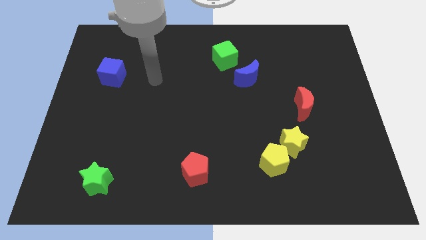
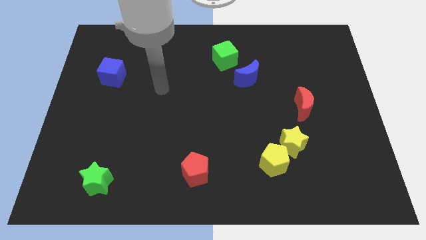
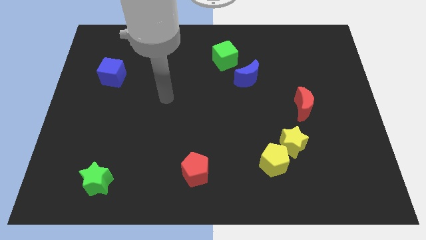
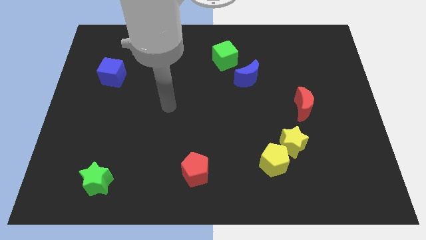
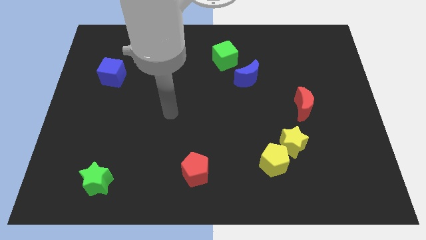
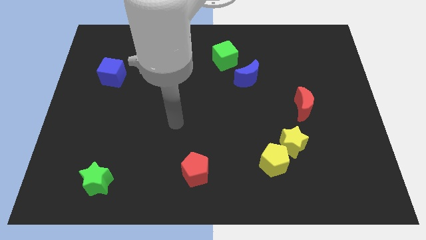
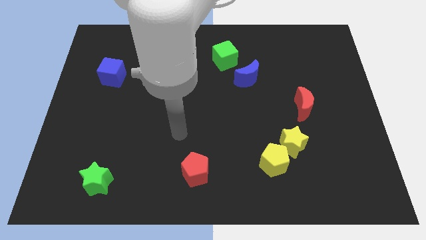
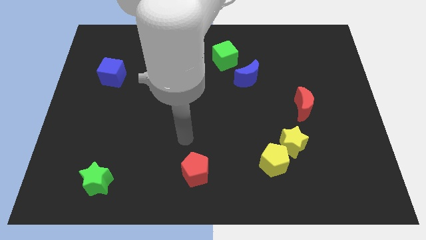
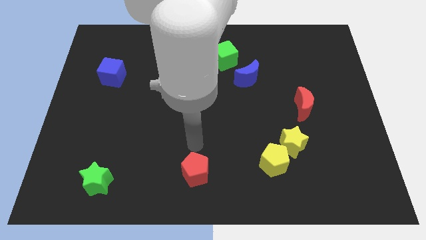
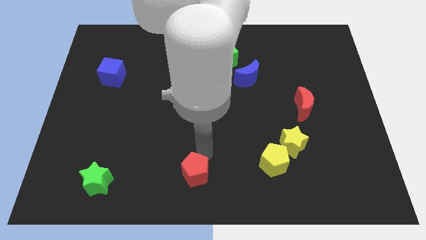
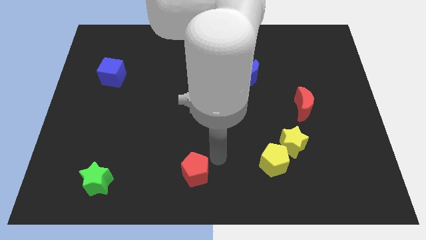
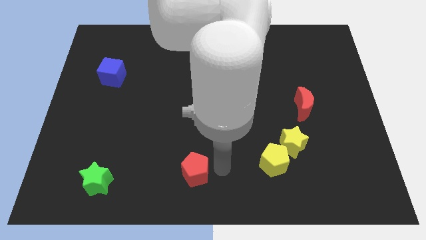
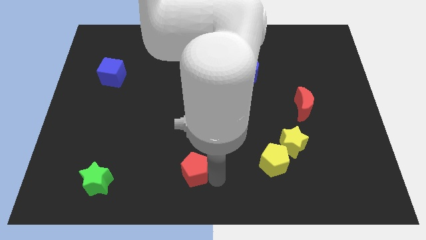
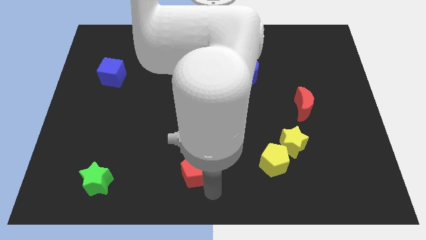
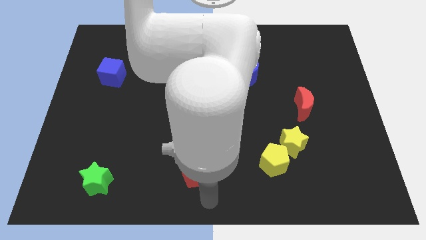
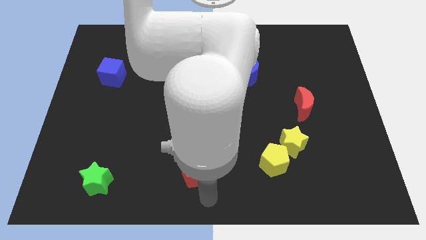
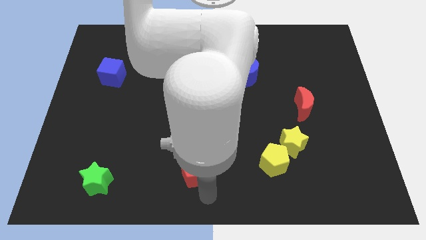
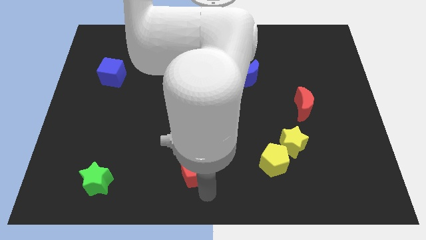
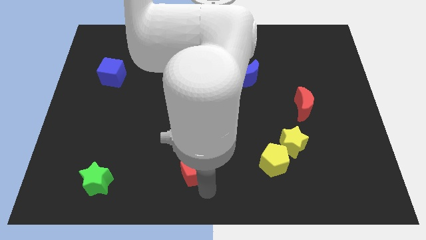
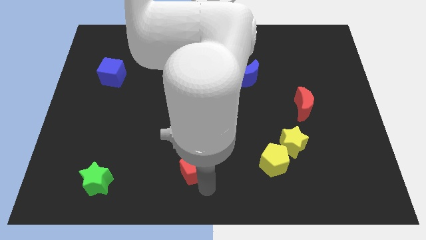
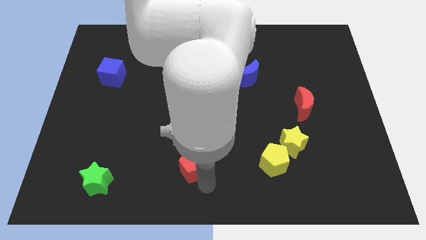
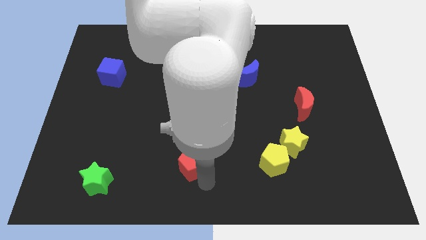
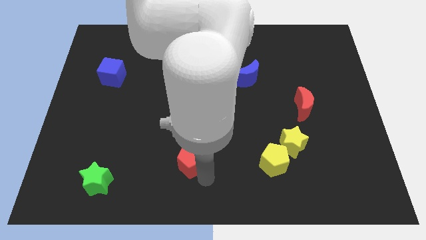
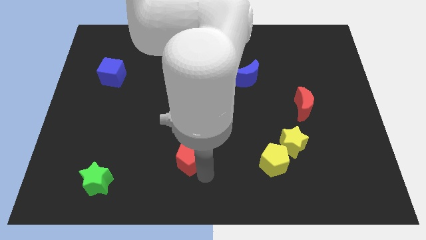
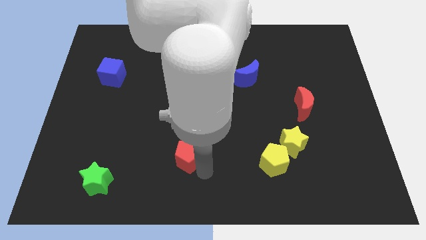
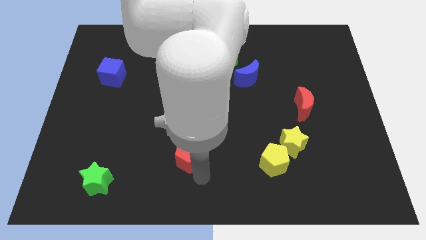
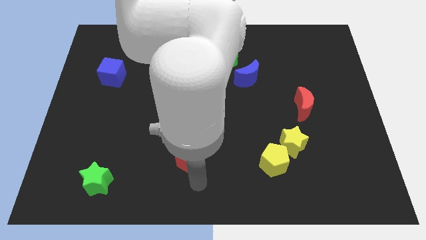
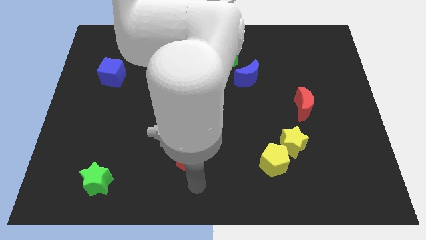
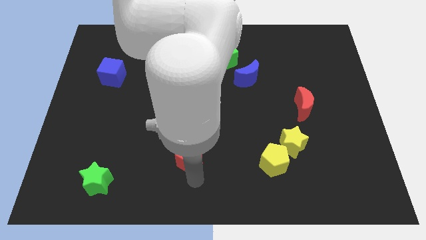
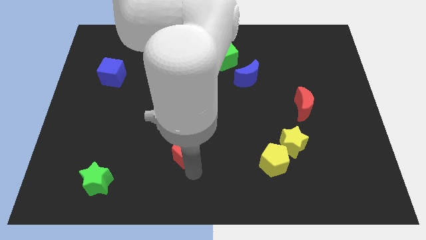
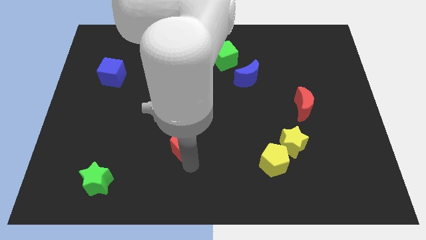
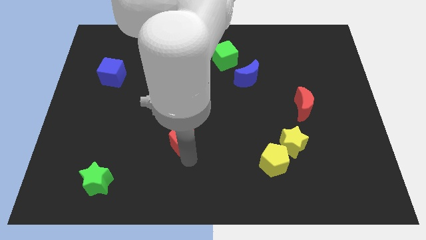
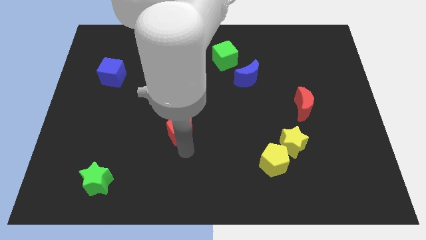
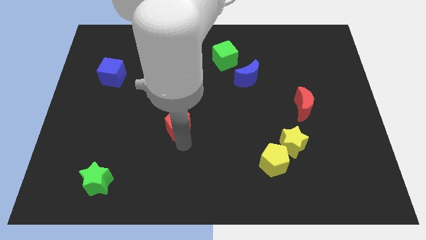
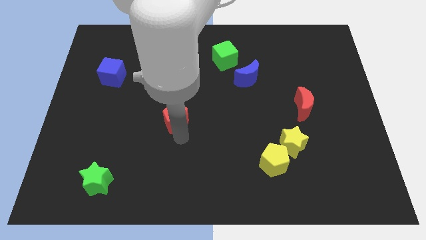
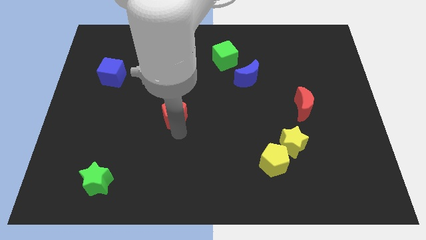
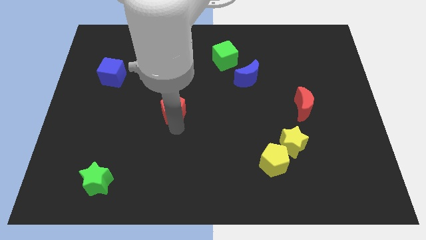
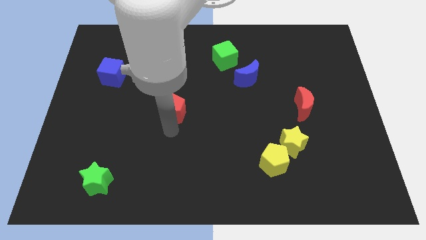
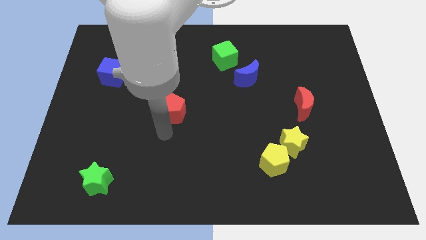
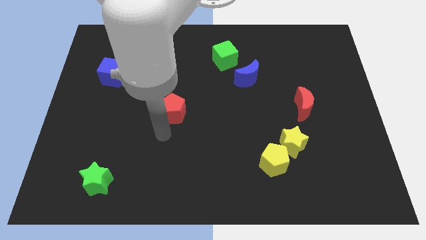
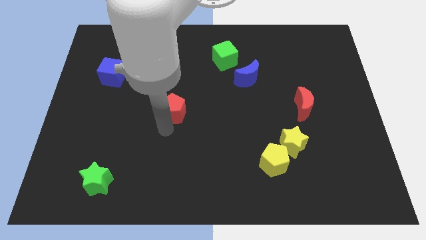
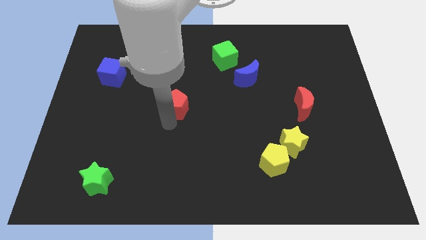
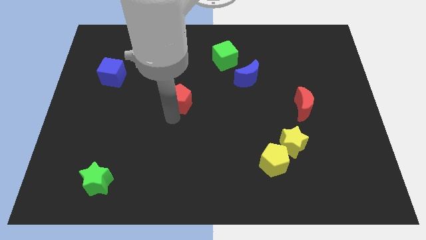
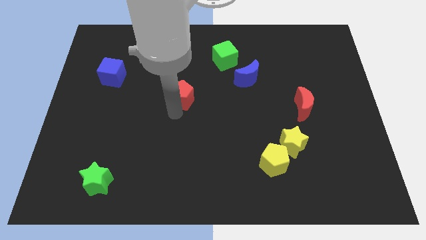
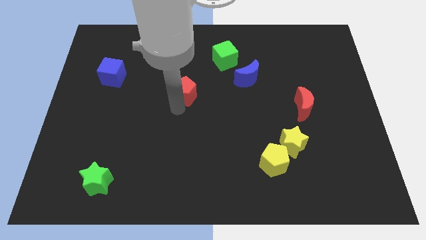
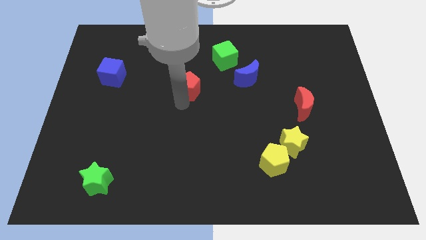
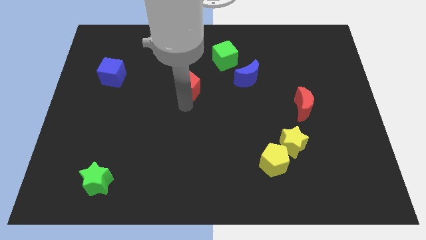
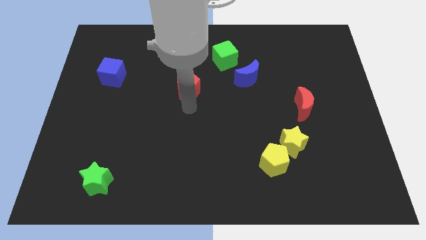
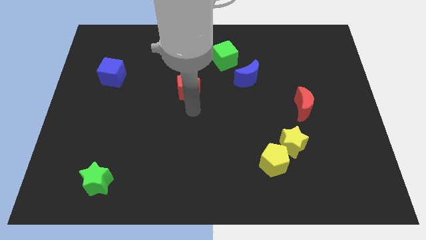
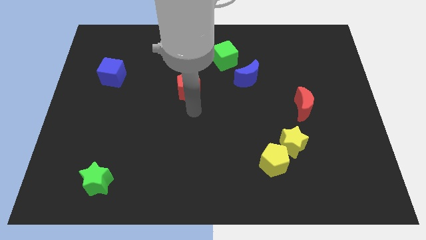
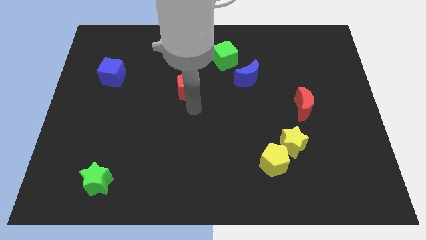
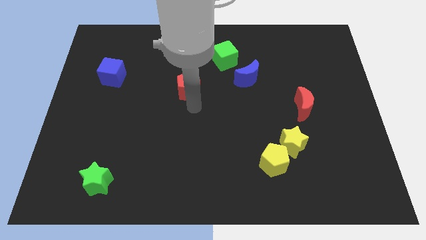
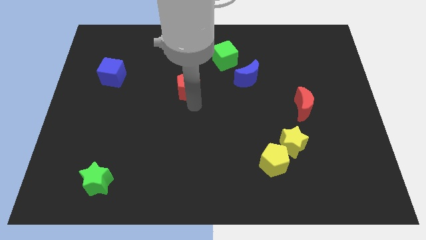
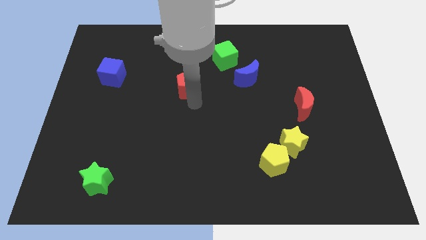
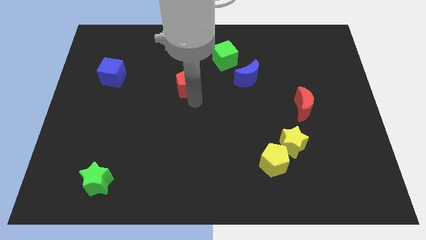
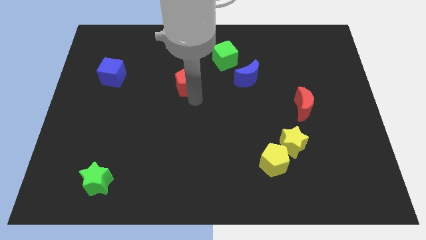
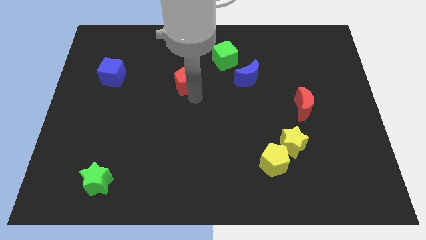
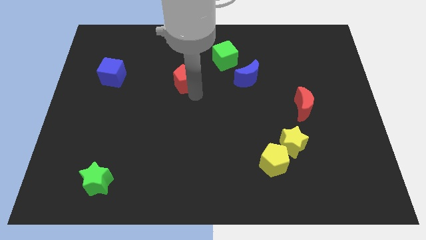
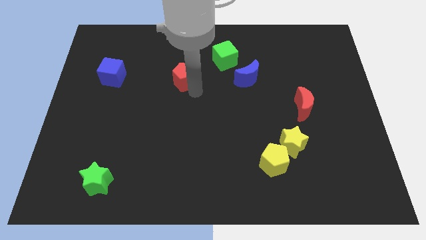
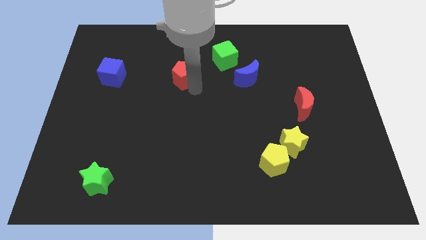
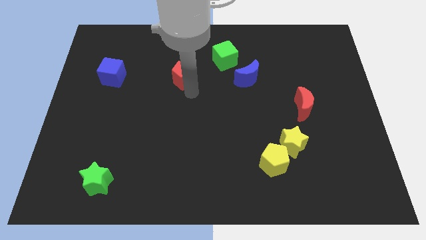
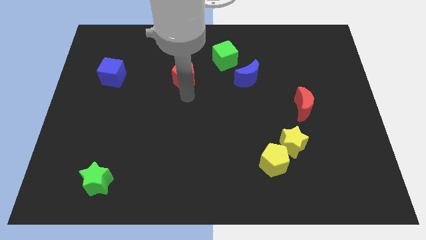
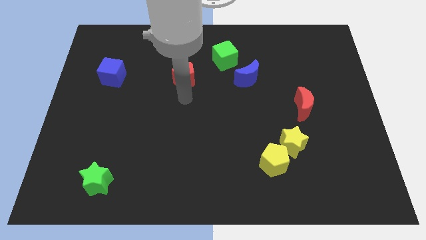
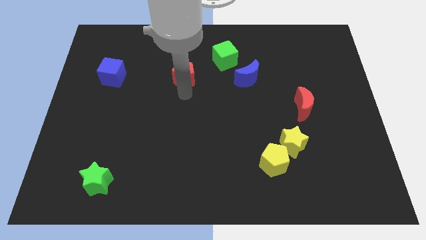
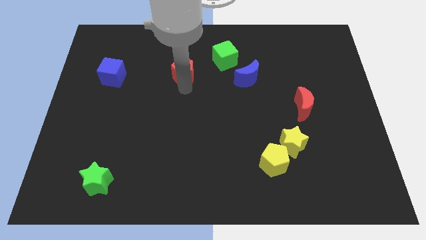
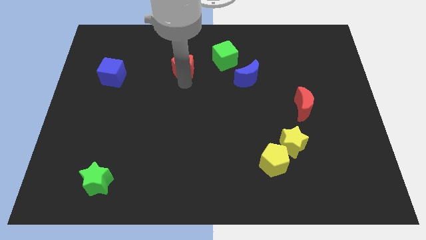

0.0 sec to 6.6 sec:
put the red pentagon to the left of the green cube

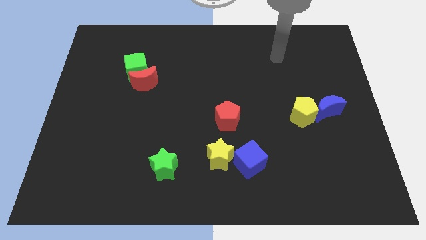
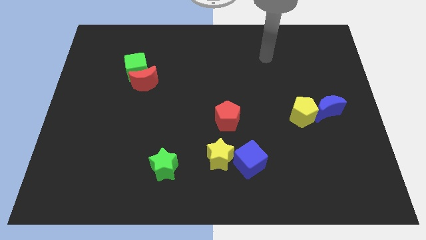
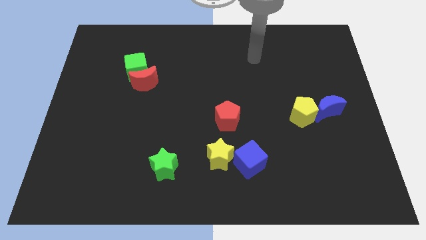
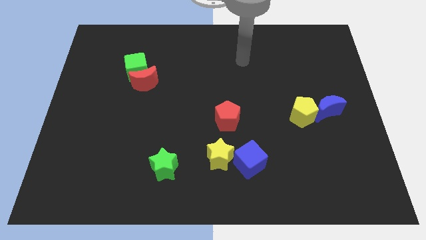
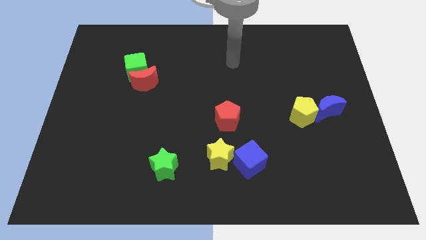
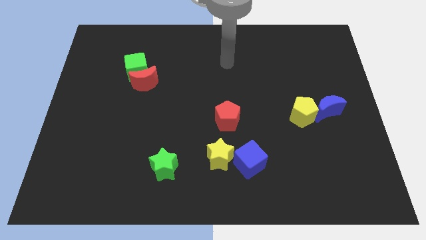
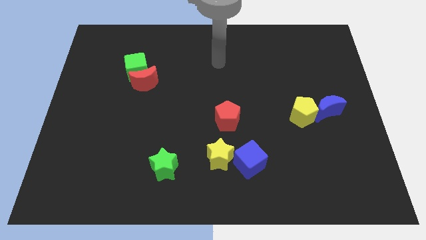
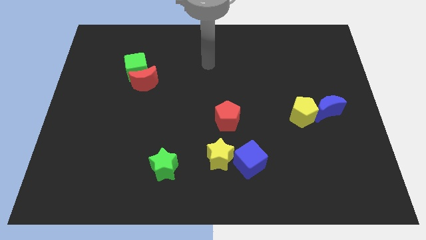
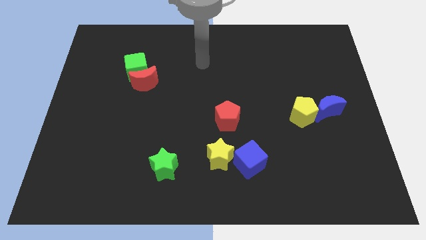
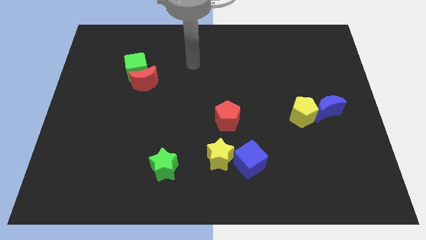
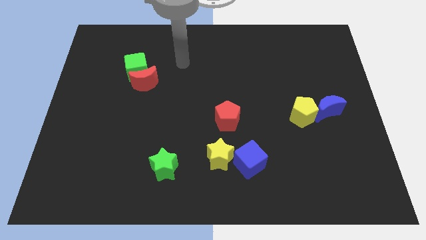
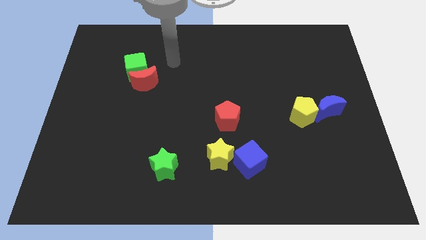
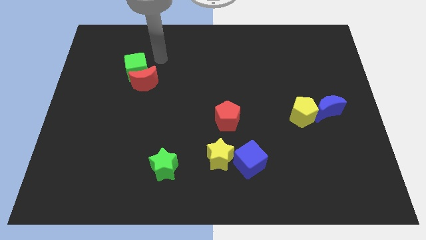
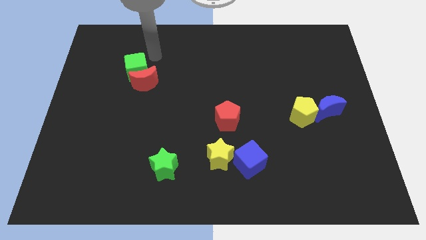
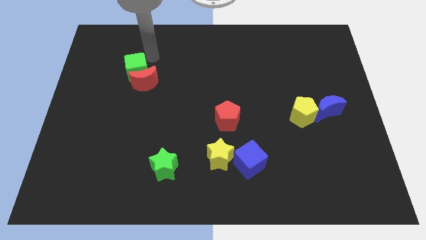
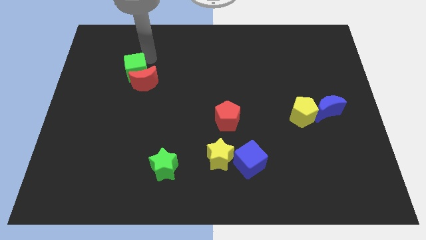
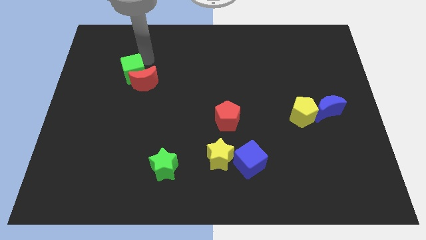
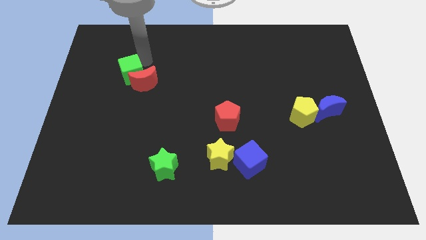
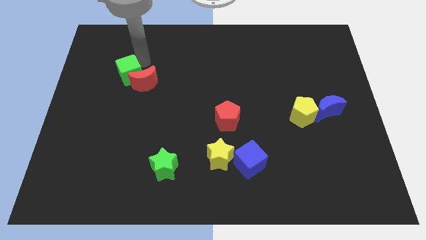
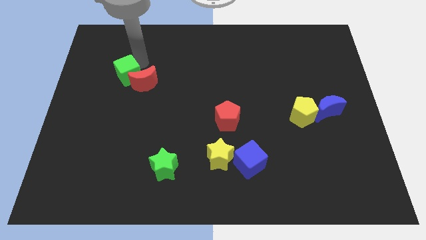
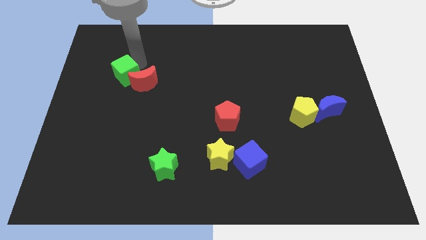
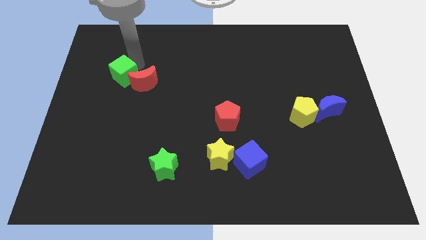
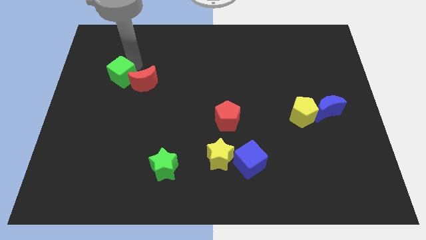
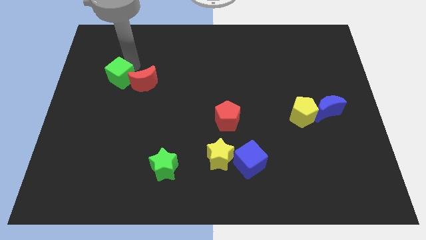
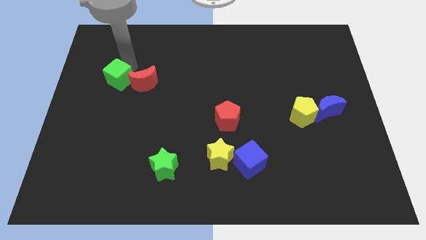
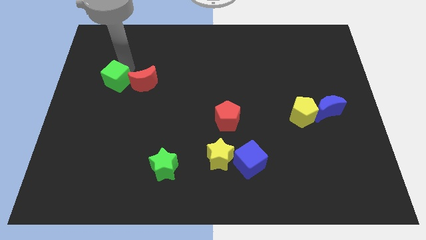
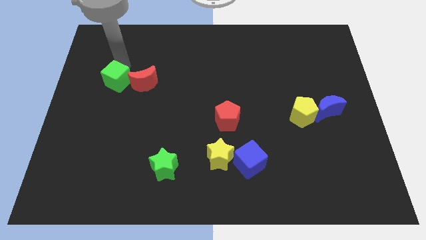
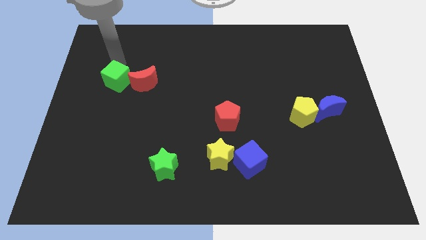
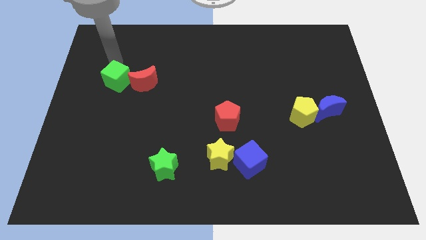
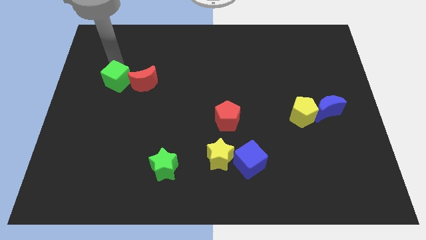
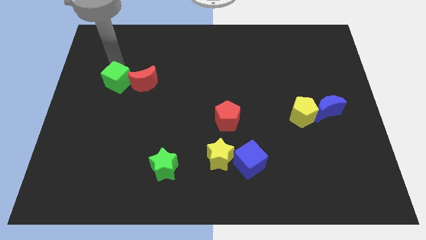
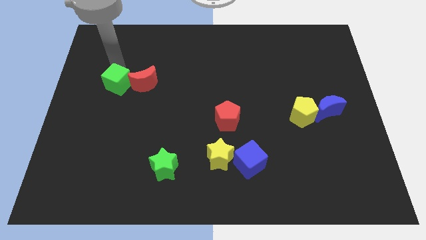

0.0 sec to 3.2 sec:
move the green cube diagonally down and to the left of the red moon
